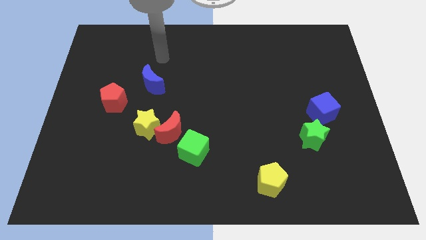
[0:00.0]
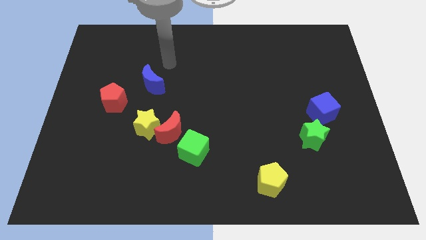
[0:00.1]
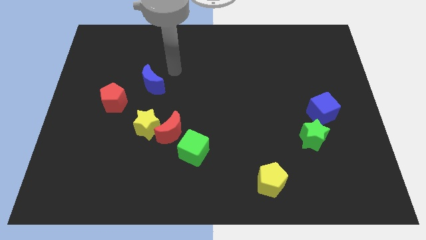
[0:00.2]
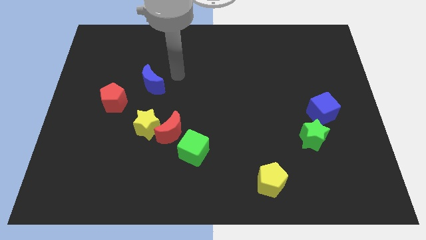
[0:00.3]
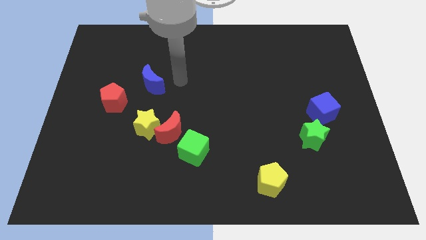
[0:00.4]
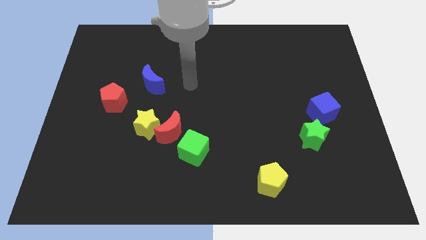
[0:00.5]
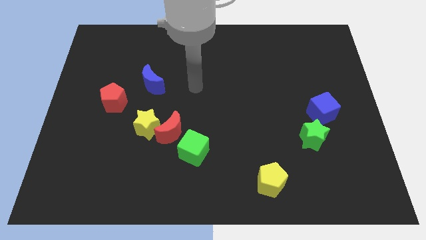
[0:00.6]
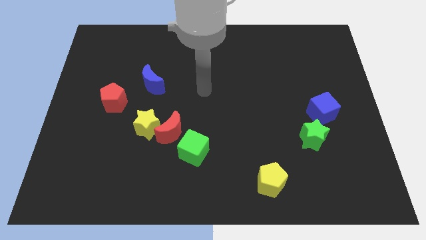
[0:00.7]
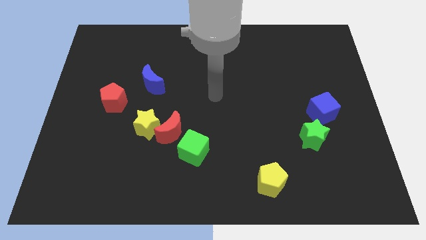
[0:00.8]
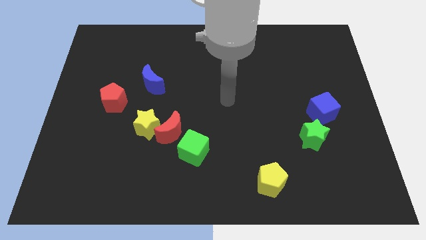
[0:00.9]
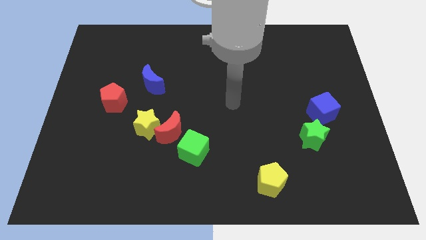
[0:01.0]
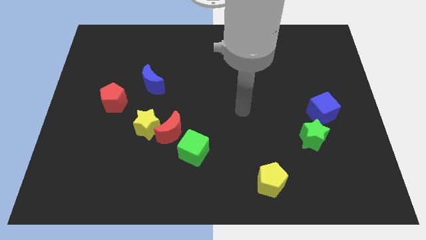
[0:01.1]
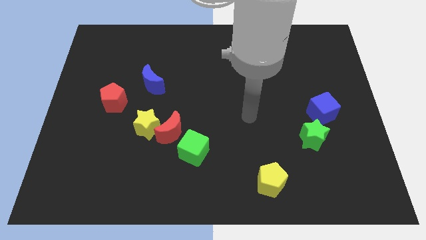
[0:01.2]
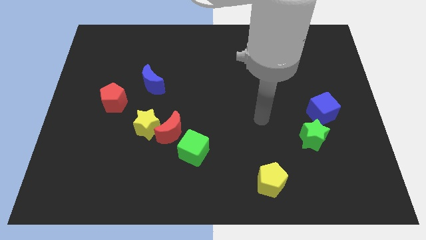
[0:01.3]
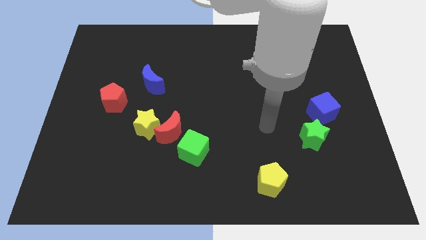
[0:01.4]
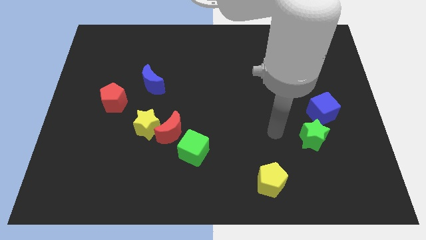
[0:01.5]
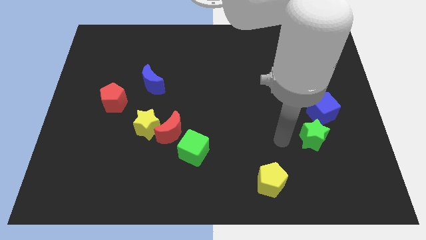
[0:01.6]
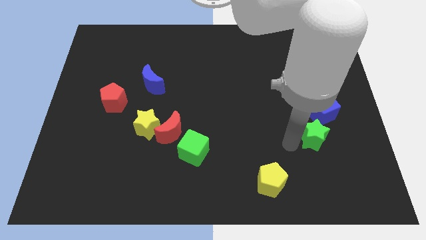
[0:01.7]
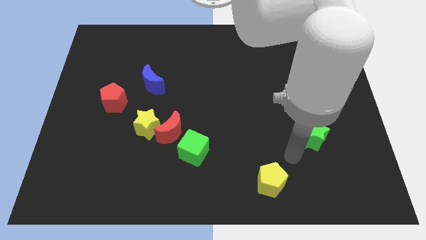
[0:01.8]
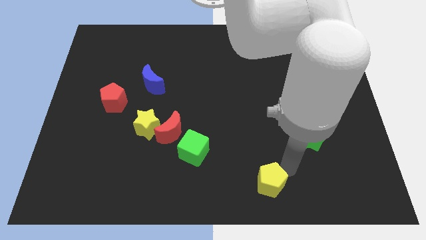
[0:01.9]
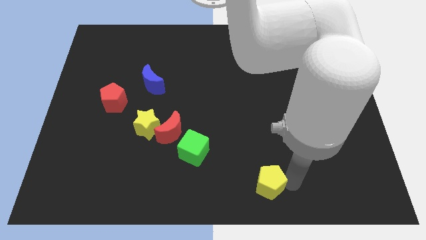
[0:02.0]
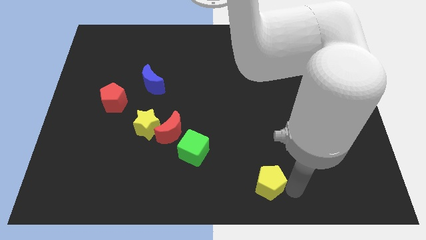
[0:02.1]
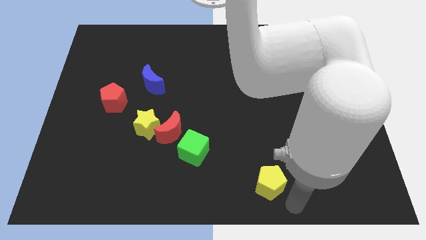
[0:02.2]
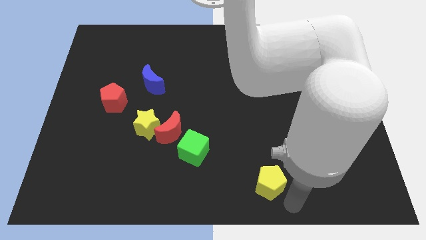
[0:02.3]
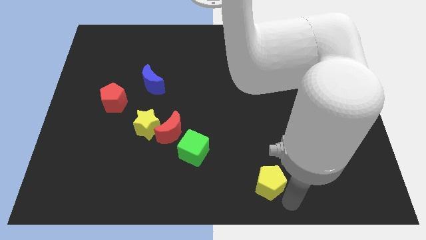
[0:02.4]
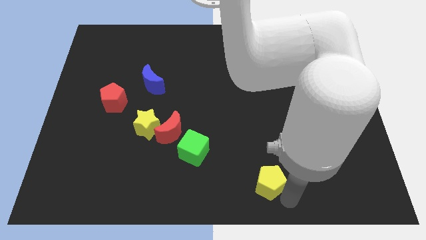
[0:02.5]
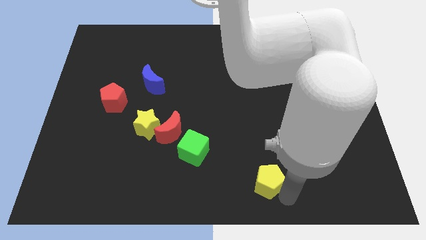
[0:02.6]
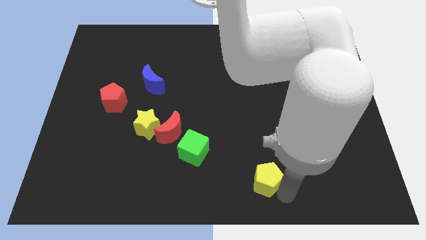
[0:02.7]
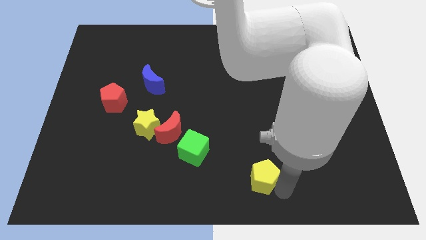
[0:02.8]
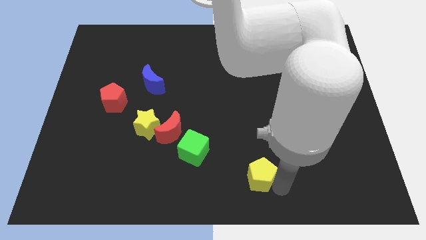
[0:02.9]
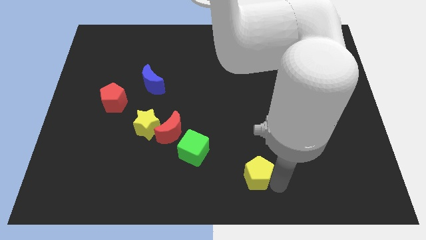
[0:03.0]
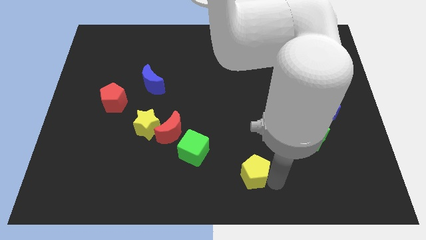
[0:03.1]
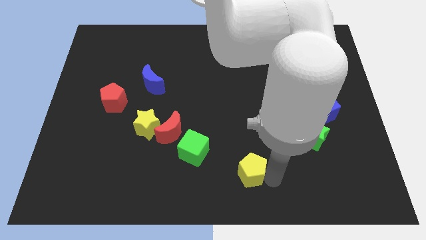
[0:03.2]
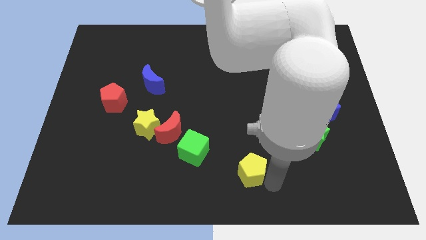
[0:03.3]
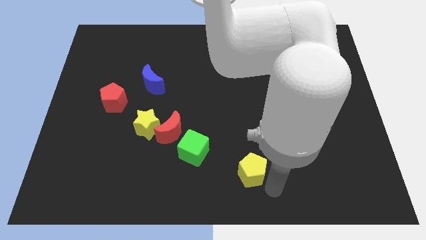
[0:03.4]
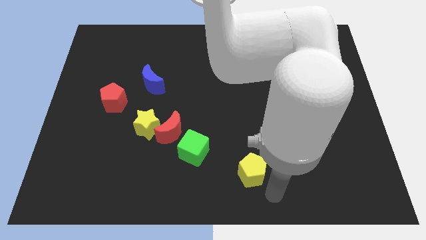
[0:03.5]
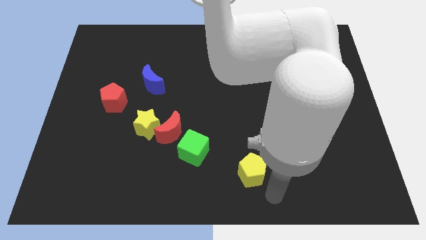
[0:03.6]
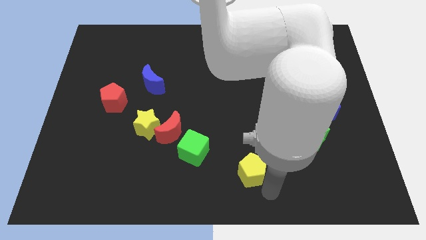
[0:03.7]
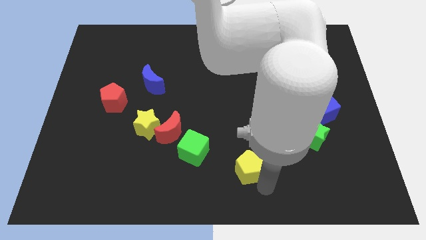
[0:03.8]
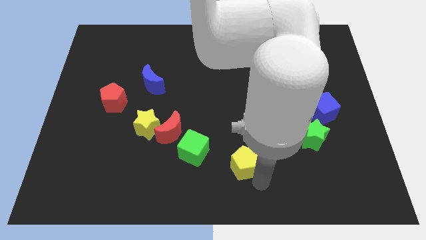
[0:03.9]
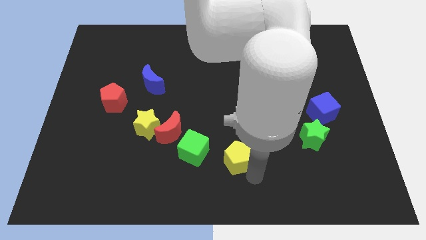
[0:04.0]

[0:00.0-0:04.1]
slightly slide the yellow pentagon upwards and then left

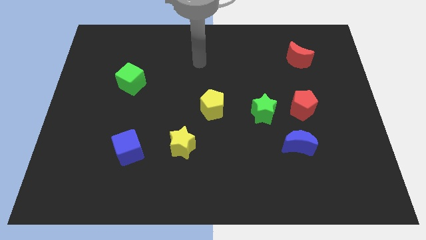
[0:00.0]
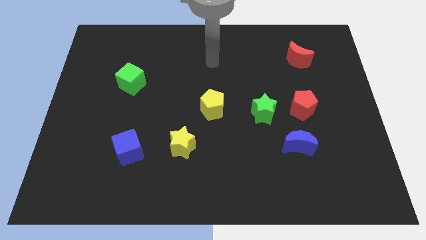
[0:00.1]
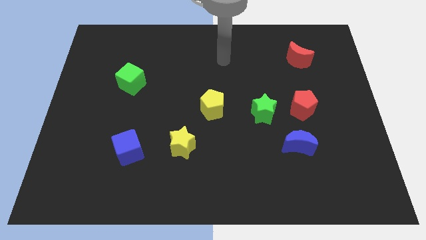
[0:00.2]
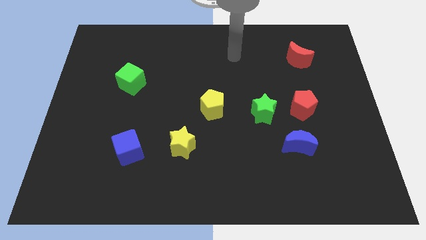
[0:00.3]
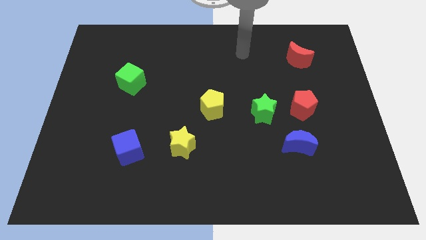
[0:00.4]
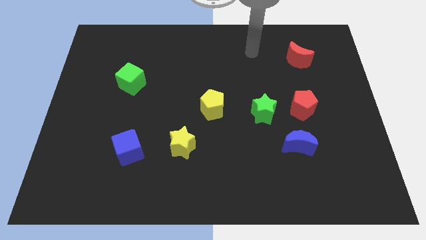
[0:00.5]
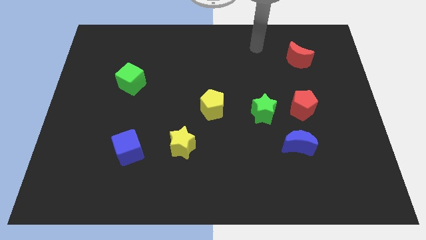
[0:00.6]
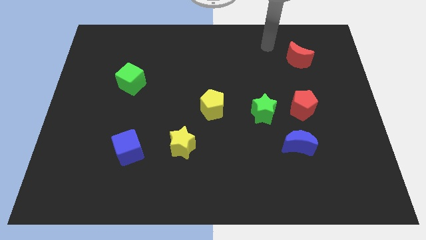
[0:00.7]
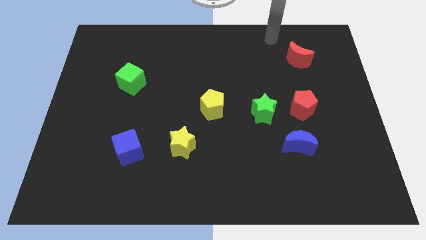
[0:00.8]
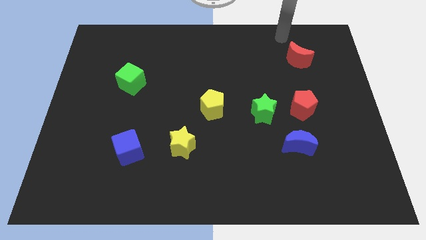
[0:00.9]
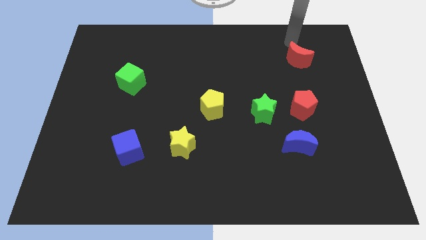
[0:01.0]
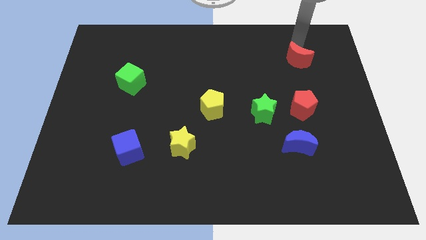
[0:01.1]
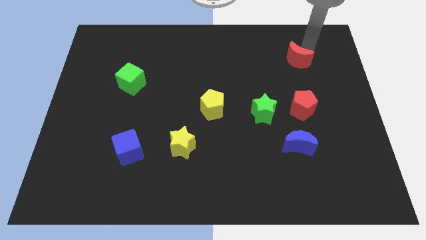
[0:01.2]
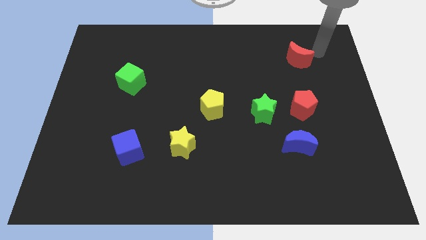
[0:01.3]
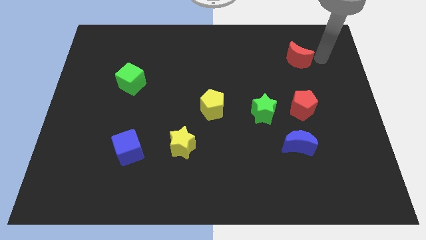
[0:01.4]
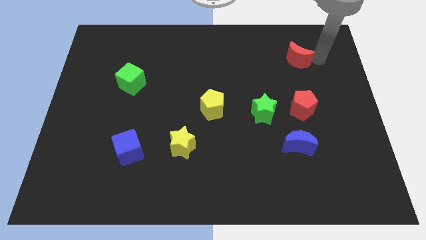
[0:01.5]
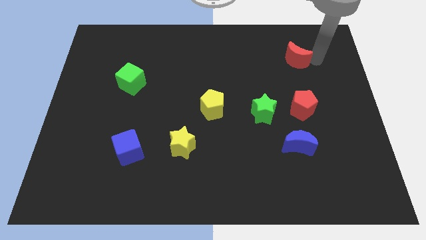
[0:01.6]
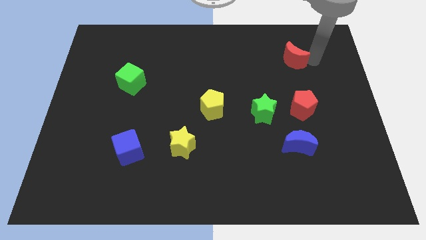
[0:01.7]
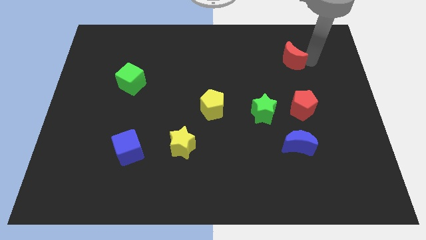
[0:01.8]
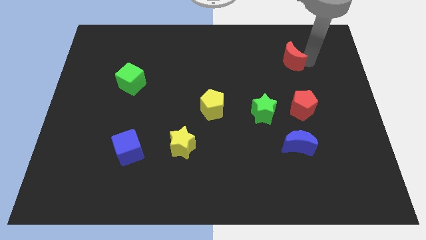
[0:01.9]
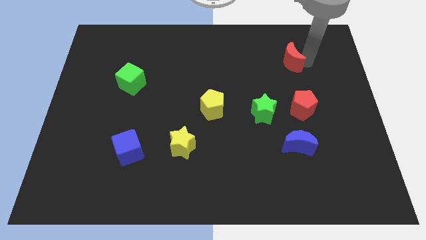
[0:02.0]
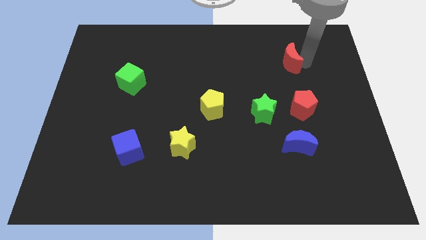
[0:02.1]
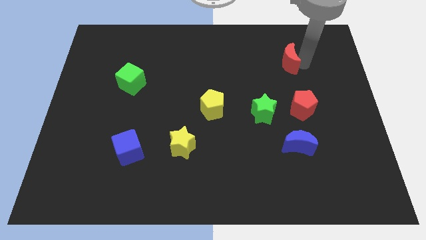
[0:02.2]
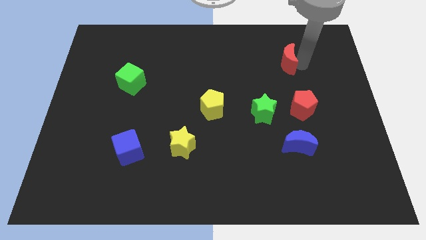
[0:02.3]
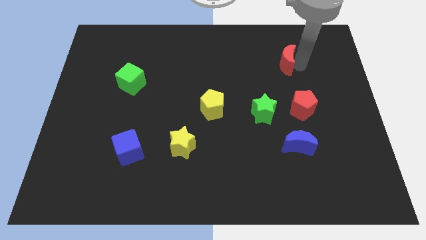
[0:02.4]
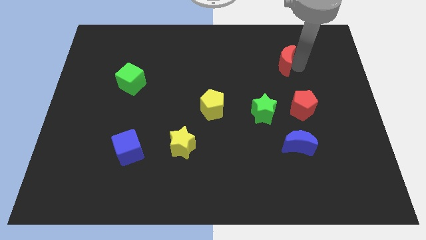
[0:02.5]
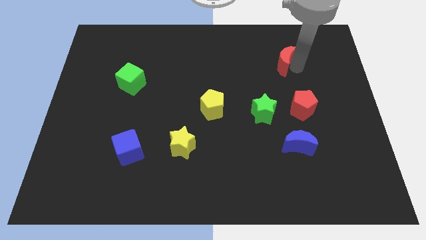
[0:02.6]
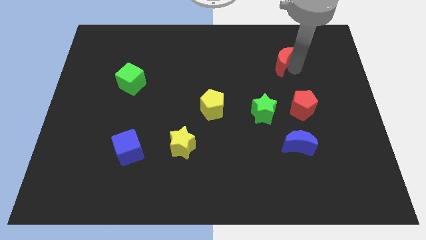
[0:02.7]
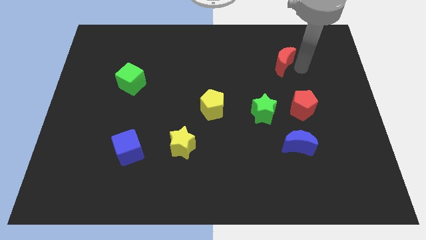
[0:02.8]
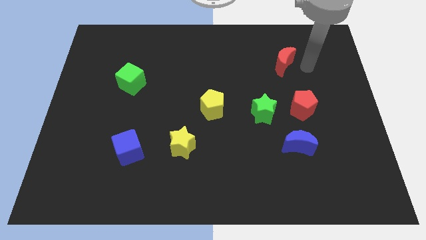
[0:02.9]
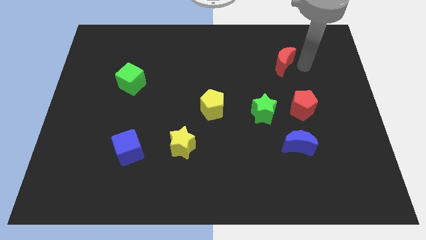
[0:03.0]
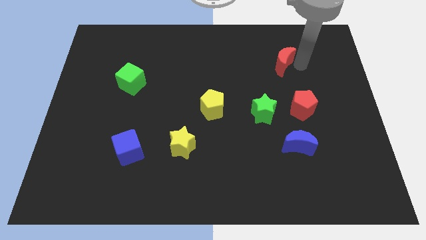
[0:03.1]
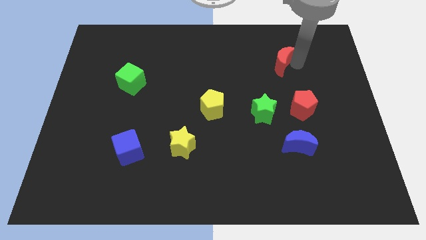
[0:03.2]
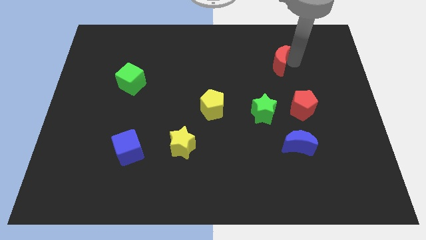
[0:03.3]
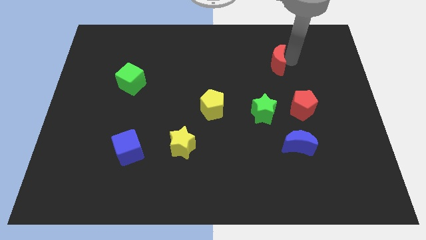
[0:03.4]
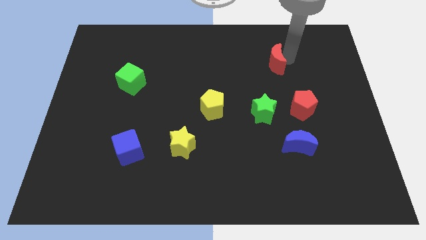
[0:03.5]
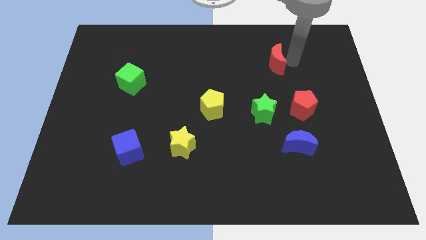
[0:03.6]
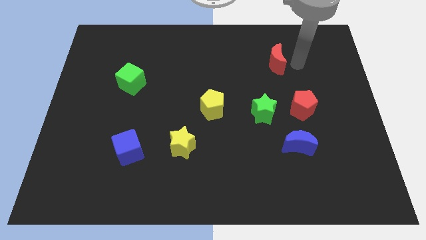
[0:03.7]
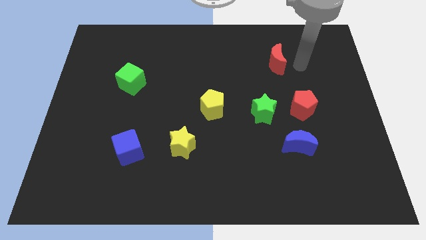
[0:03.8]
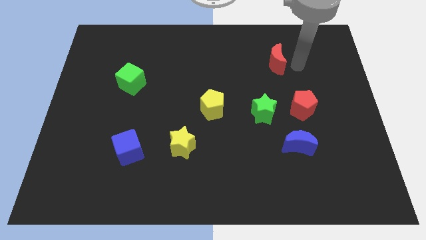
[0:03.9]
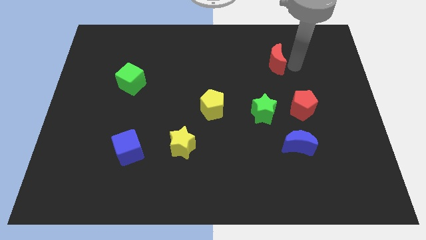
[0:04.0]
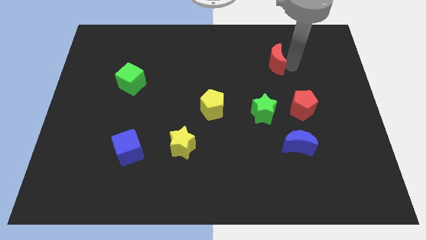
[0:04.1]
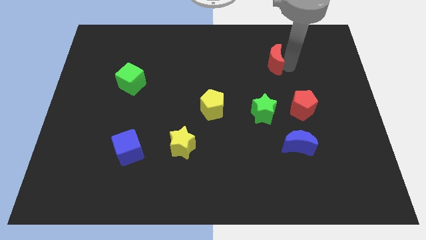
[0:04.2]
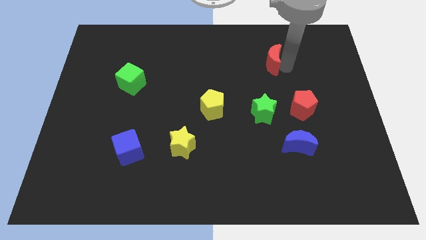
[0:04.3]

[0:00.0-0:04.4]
push the red moon slightly left
